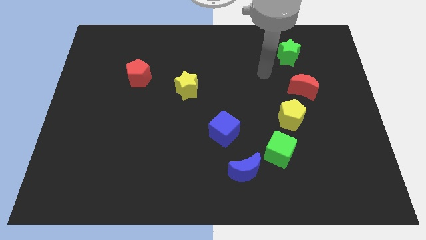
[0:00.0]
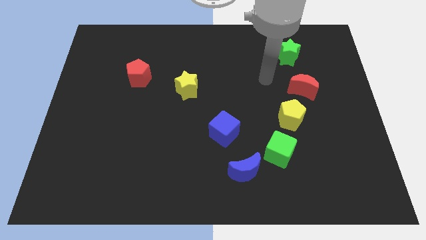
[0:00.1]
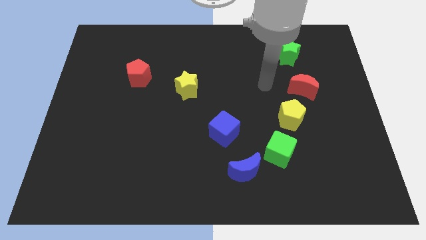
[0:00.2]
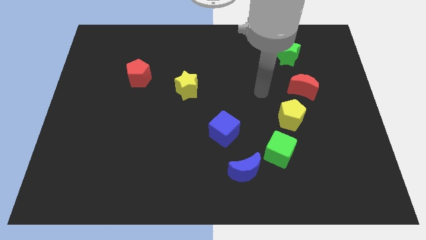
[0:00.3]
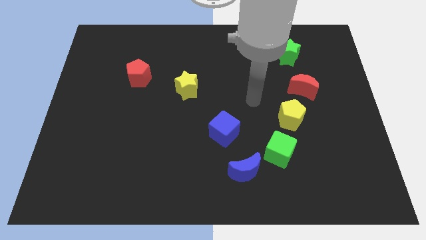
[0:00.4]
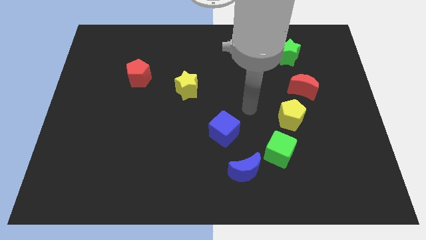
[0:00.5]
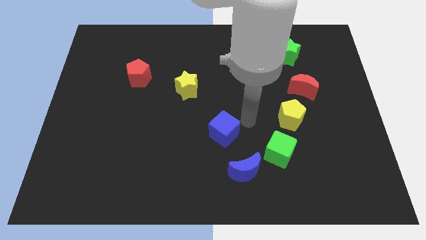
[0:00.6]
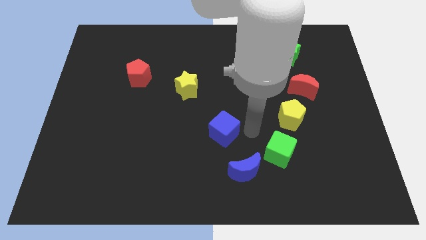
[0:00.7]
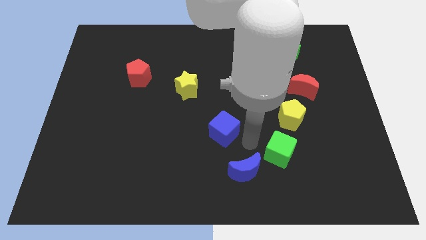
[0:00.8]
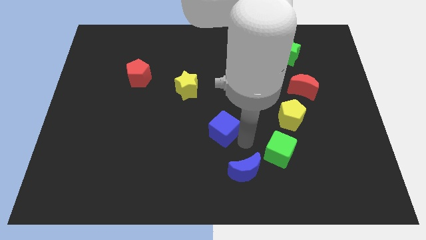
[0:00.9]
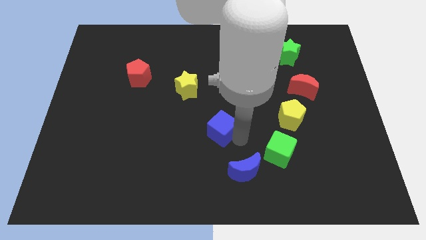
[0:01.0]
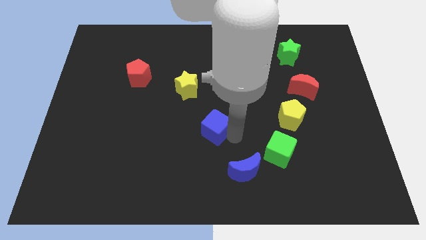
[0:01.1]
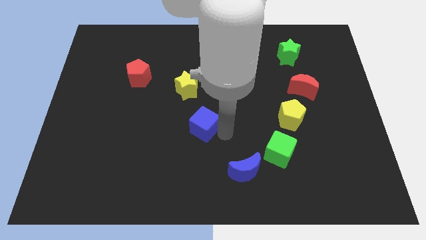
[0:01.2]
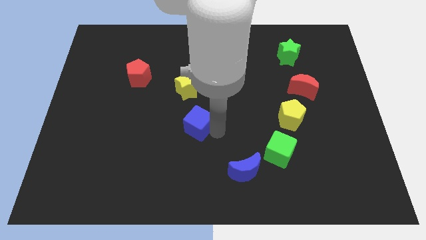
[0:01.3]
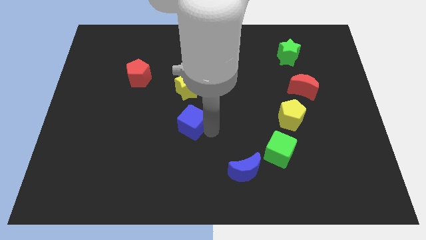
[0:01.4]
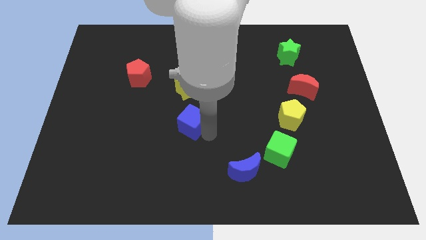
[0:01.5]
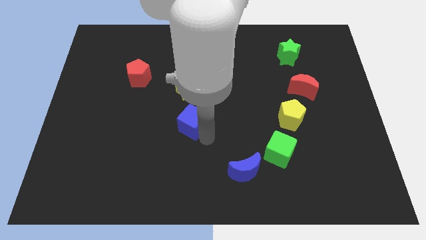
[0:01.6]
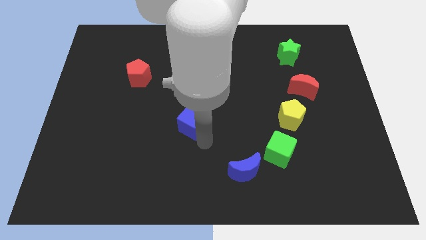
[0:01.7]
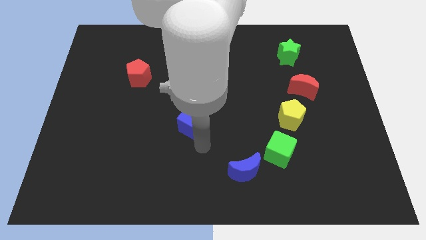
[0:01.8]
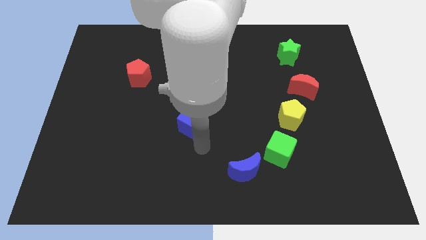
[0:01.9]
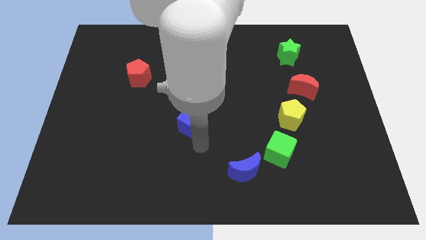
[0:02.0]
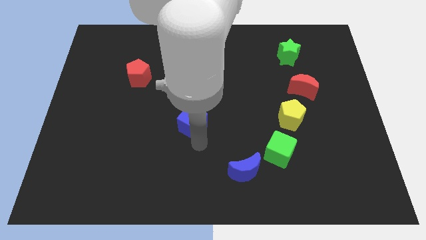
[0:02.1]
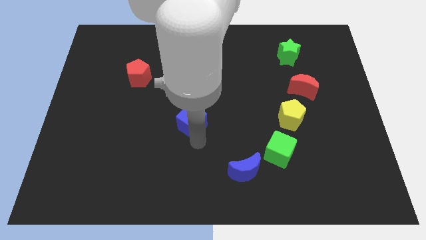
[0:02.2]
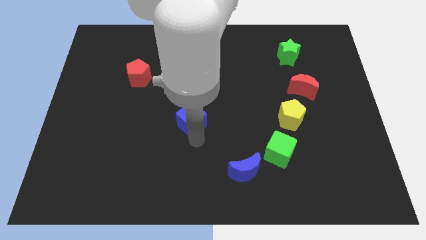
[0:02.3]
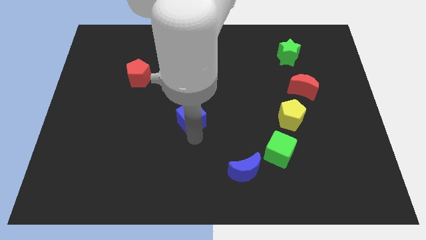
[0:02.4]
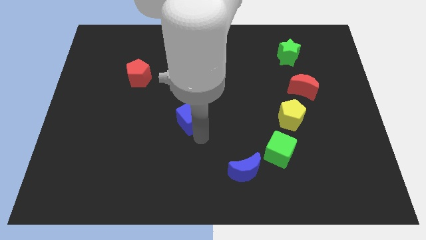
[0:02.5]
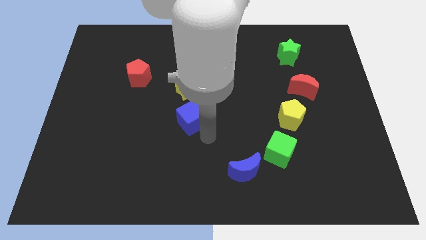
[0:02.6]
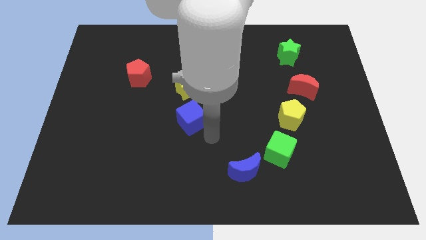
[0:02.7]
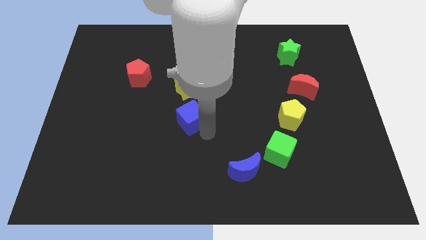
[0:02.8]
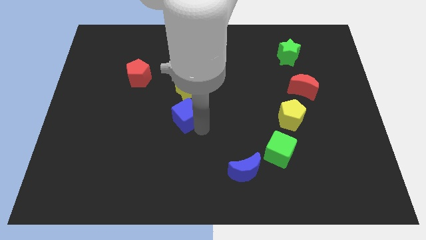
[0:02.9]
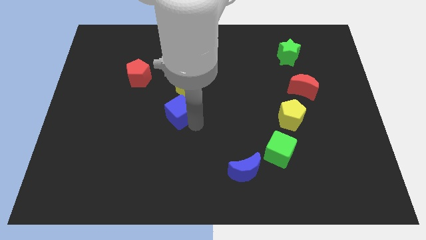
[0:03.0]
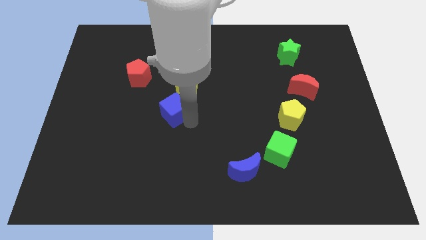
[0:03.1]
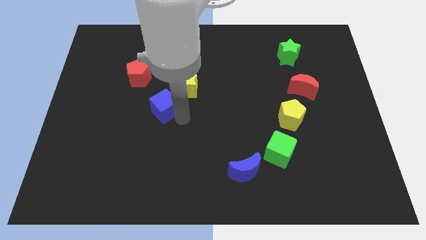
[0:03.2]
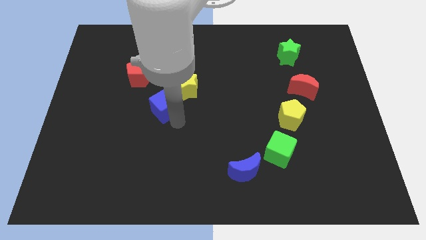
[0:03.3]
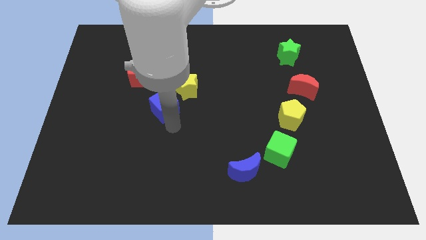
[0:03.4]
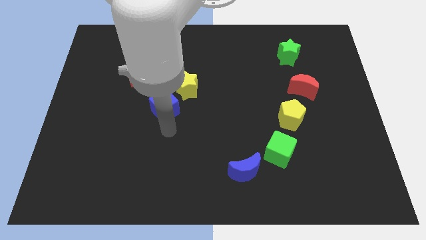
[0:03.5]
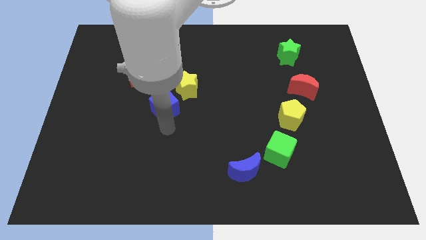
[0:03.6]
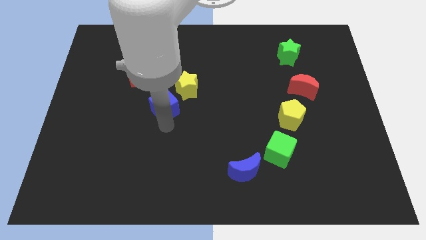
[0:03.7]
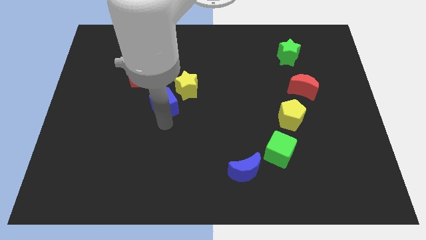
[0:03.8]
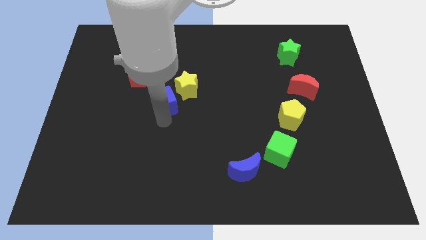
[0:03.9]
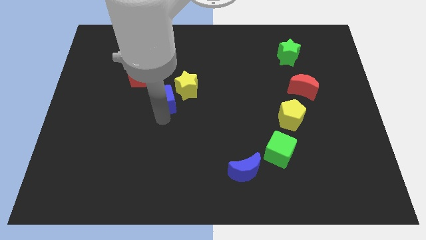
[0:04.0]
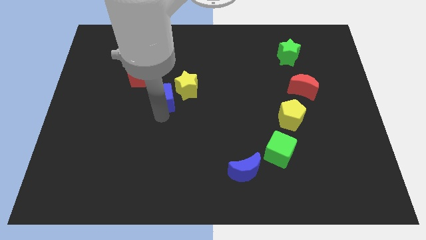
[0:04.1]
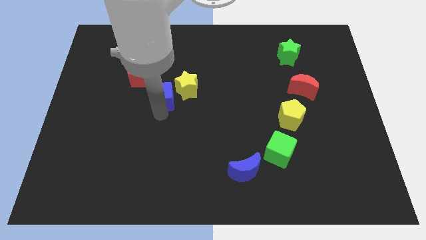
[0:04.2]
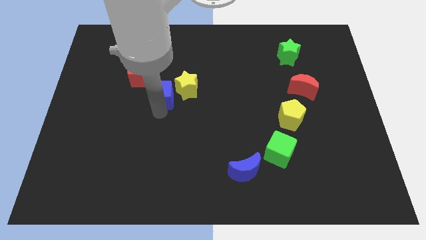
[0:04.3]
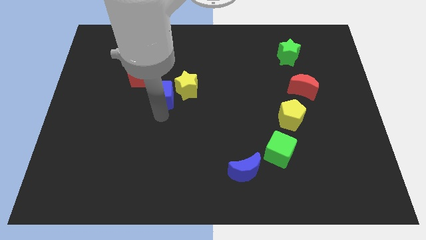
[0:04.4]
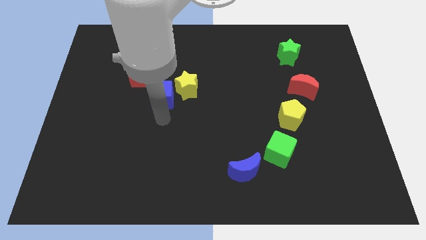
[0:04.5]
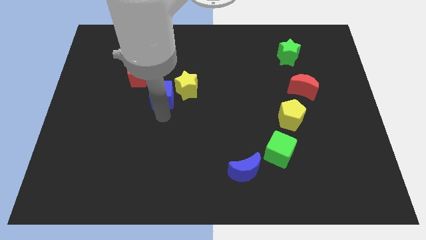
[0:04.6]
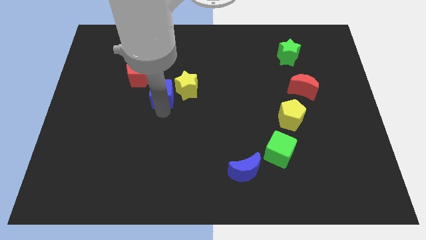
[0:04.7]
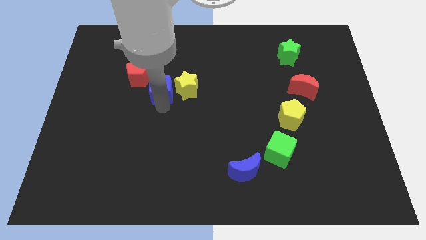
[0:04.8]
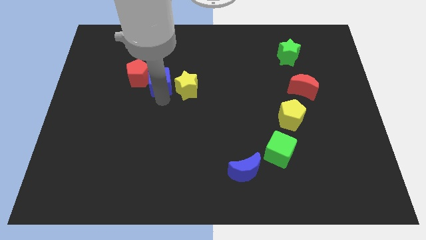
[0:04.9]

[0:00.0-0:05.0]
move the blue cube upwards and left

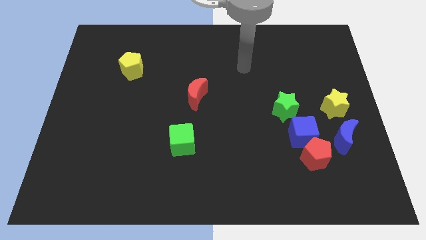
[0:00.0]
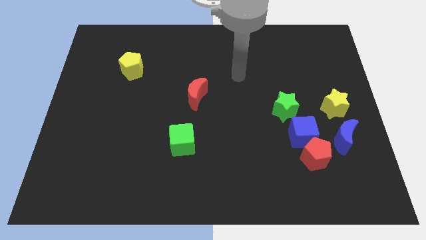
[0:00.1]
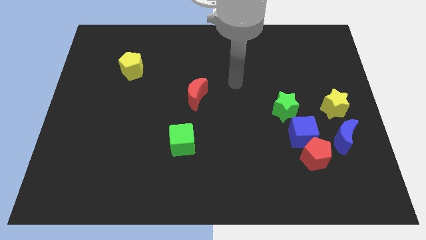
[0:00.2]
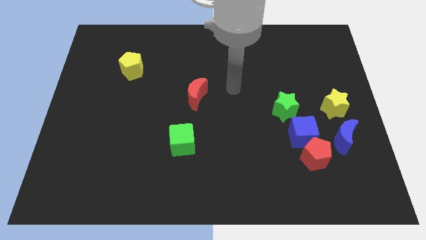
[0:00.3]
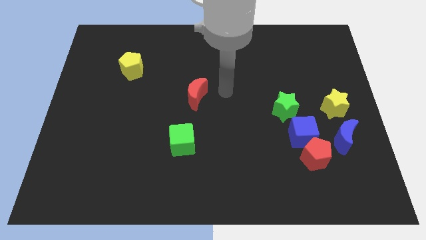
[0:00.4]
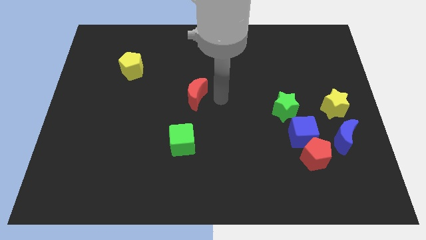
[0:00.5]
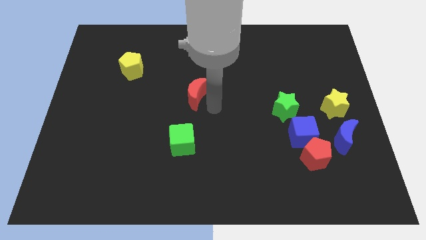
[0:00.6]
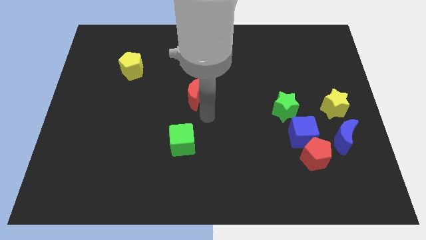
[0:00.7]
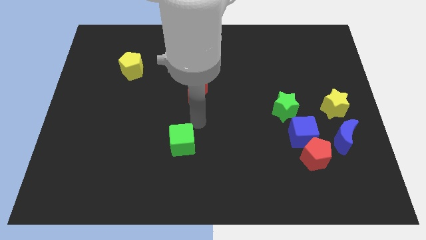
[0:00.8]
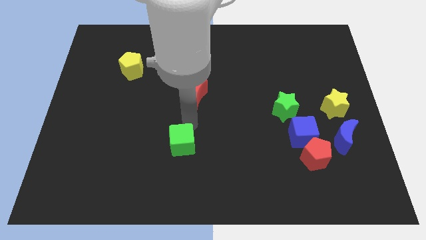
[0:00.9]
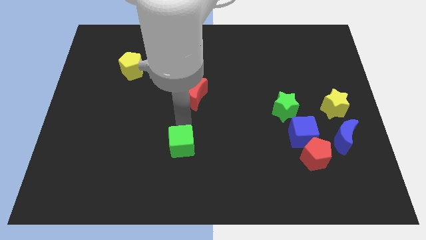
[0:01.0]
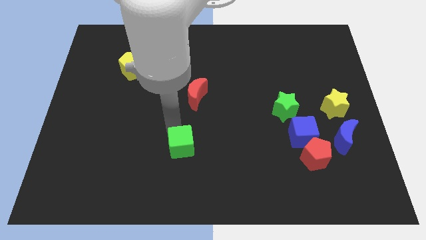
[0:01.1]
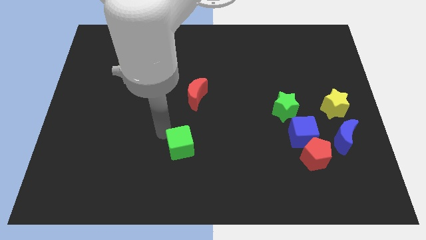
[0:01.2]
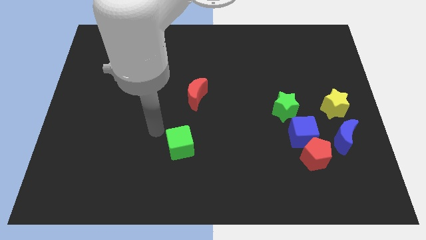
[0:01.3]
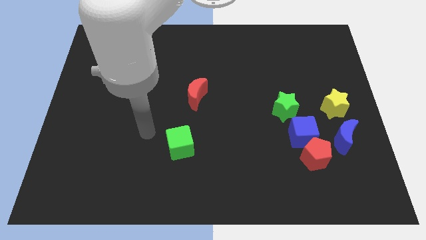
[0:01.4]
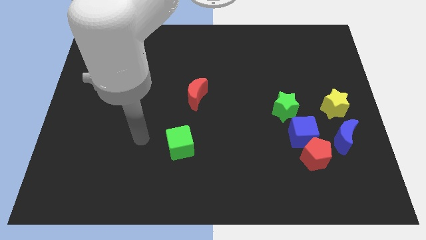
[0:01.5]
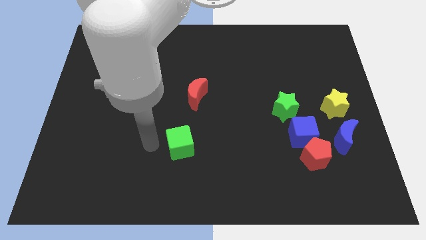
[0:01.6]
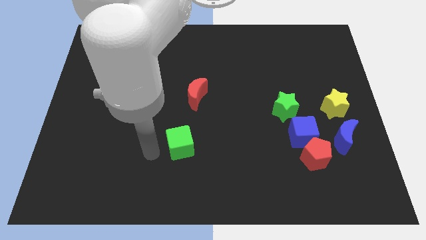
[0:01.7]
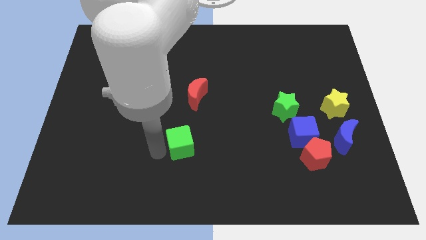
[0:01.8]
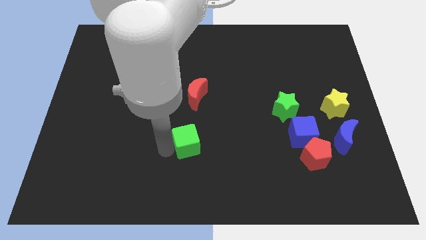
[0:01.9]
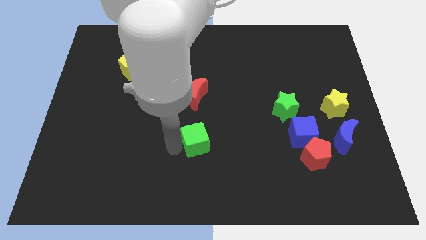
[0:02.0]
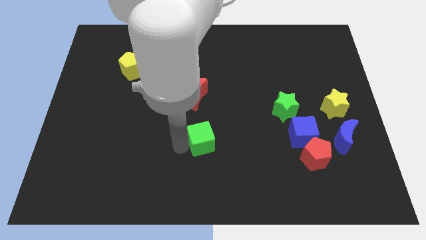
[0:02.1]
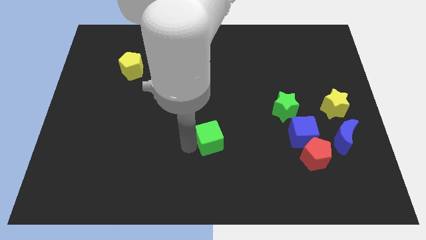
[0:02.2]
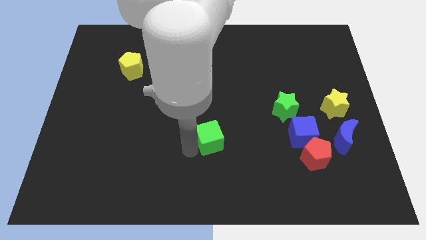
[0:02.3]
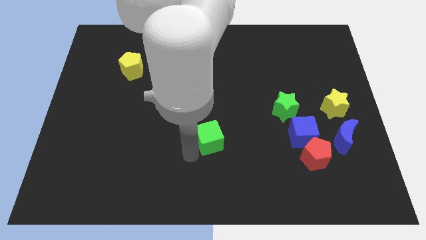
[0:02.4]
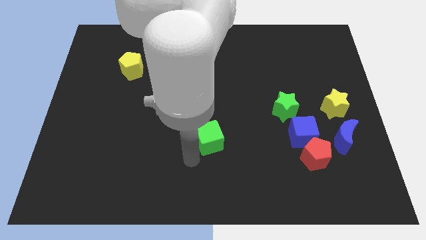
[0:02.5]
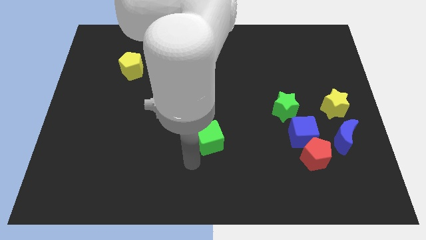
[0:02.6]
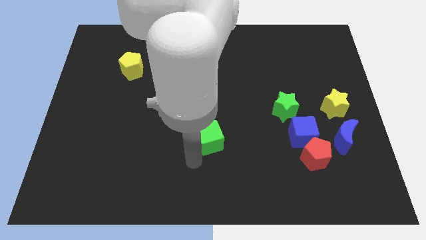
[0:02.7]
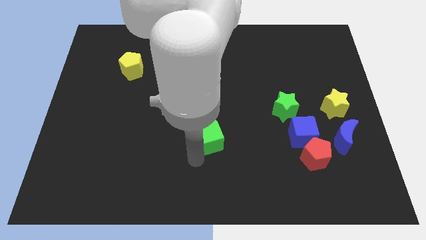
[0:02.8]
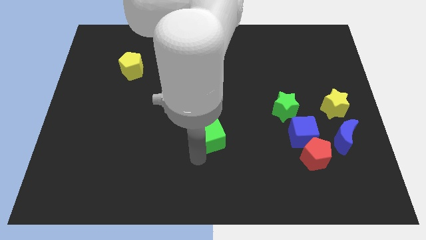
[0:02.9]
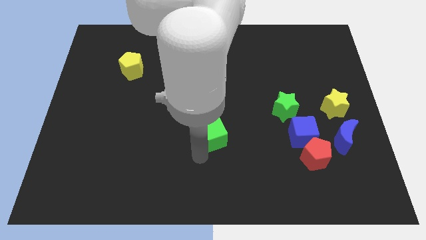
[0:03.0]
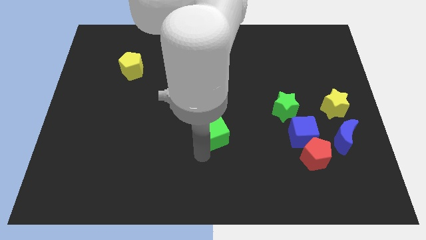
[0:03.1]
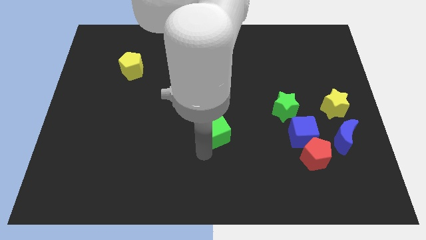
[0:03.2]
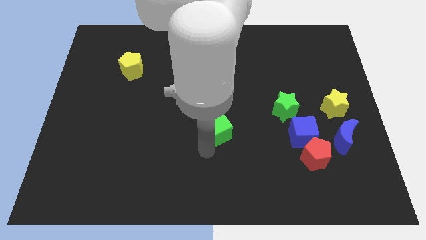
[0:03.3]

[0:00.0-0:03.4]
slightly slide the green cube upwards and then right

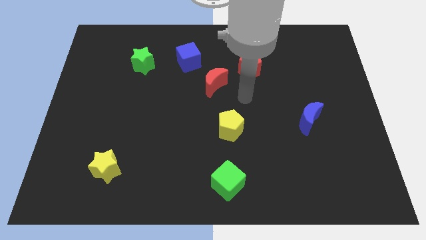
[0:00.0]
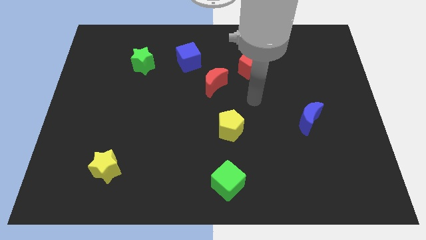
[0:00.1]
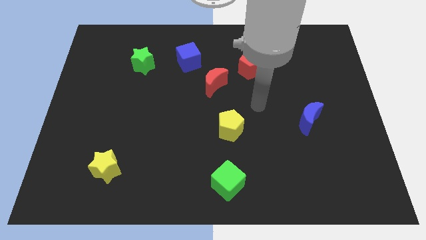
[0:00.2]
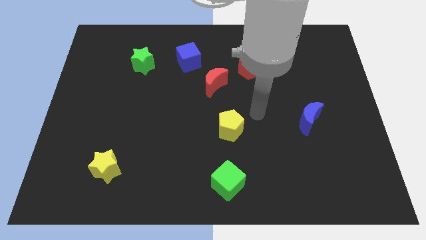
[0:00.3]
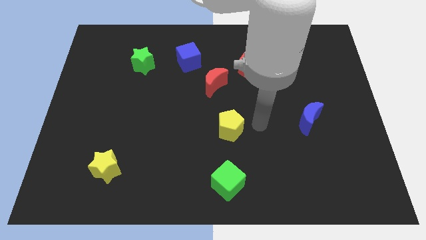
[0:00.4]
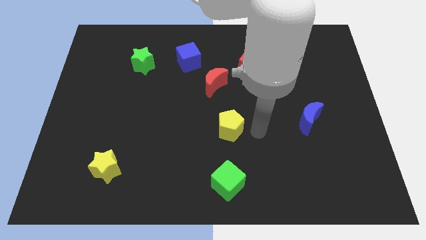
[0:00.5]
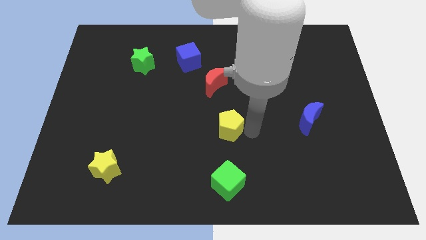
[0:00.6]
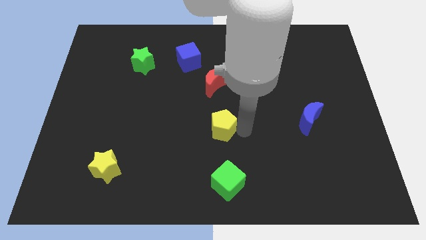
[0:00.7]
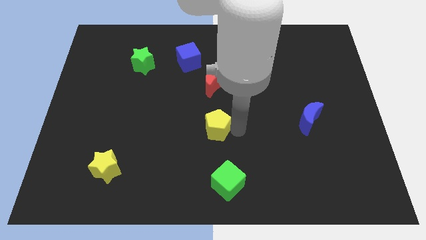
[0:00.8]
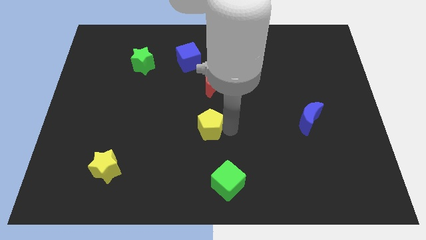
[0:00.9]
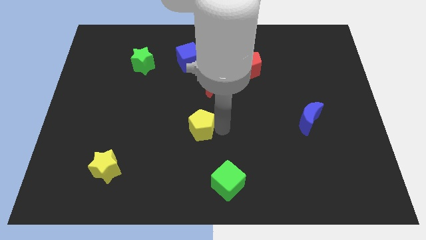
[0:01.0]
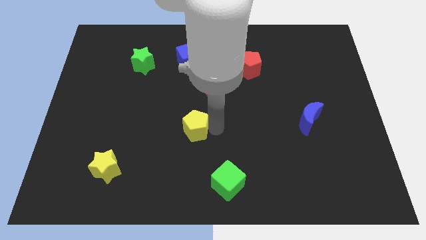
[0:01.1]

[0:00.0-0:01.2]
slightly slide the yellow pentagon left
